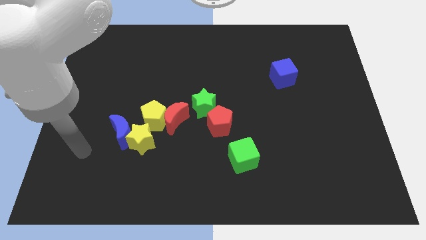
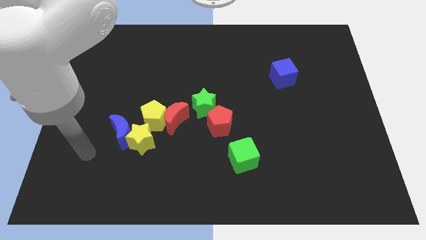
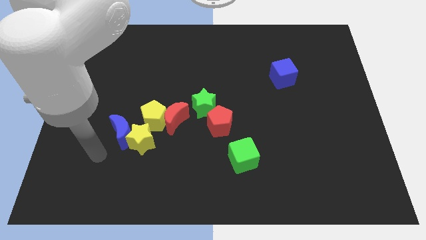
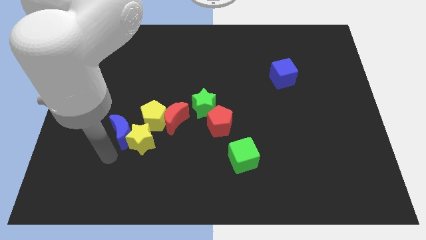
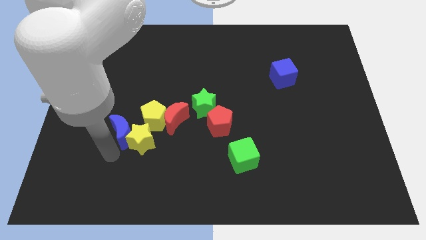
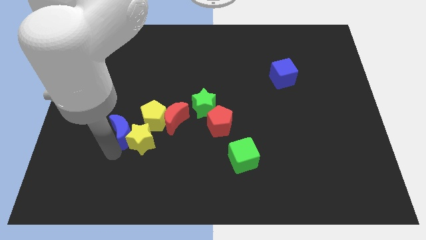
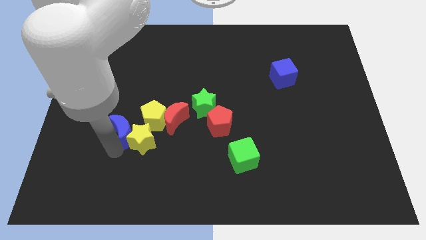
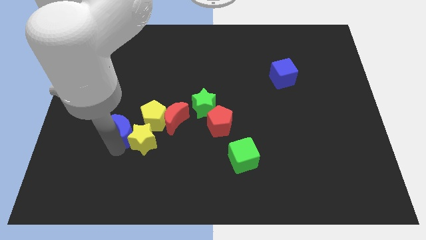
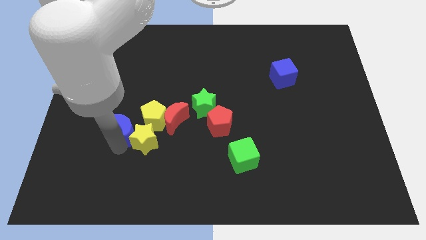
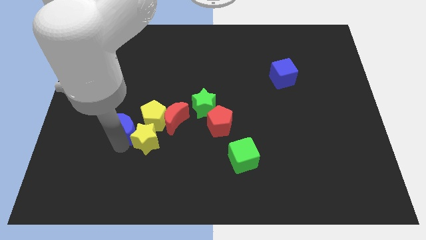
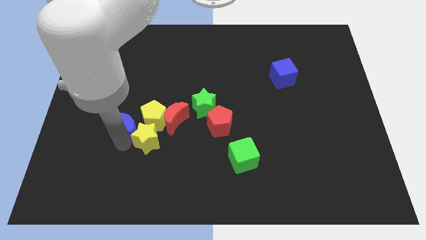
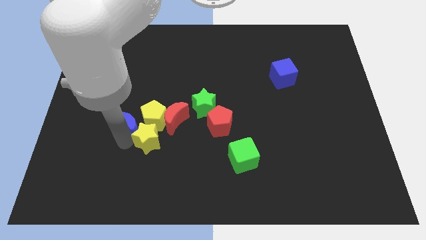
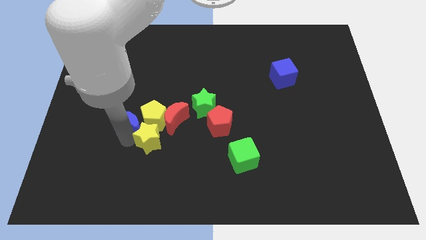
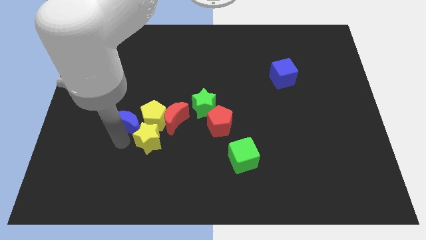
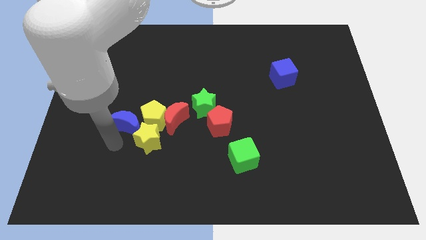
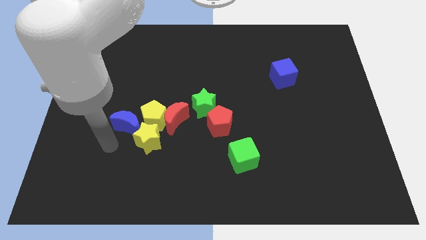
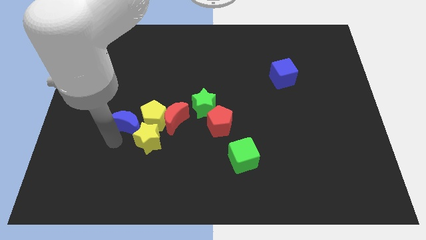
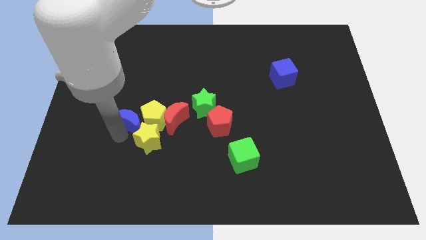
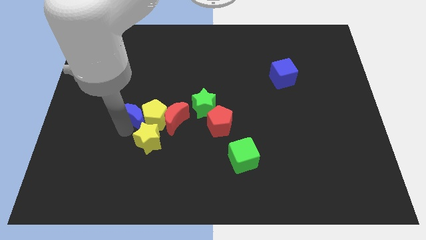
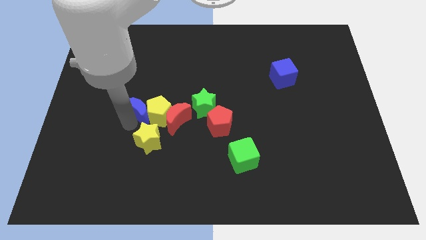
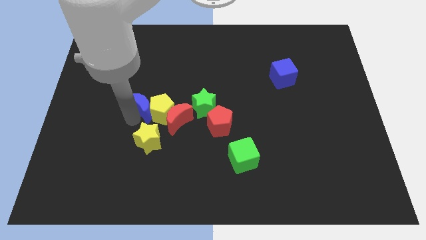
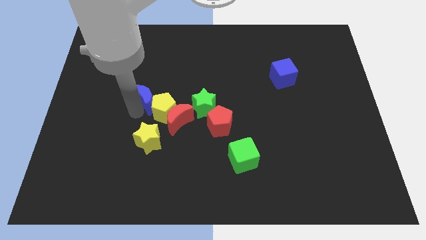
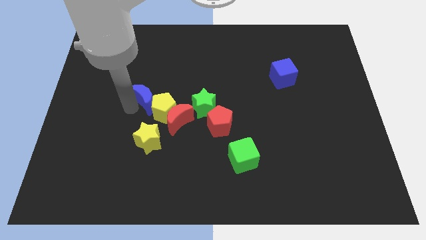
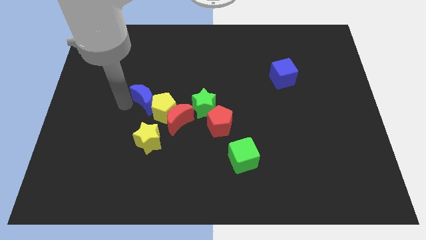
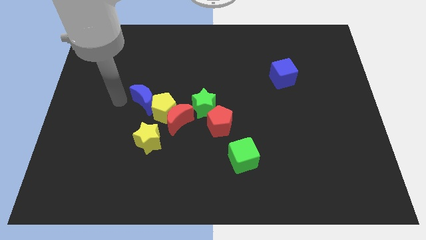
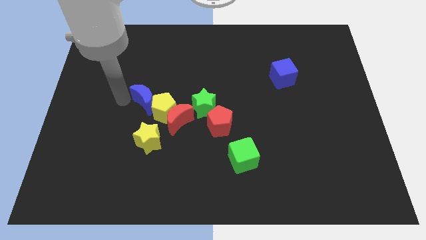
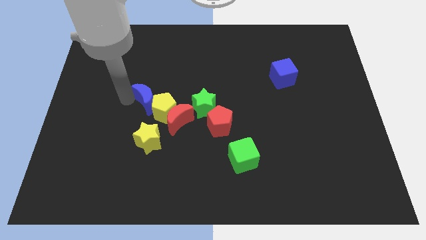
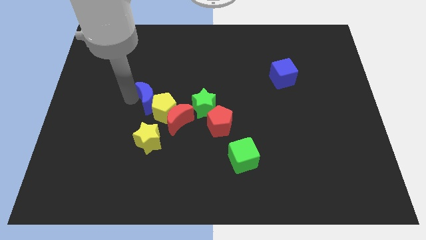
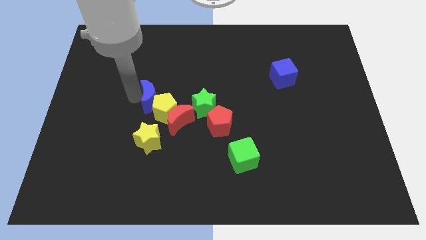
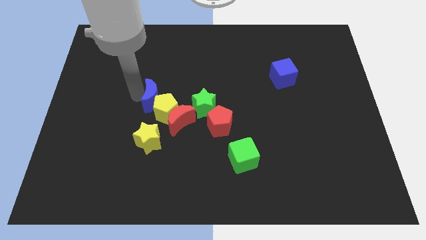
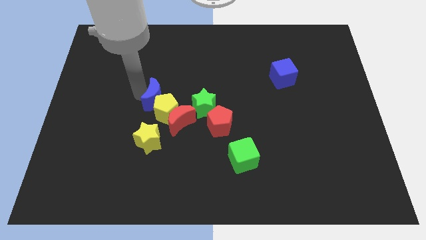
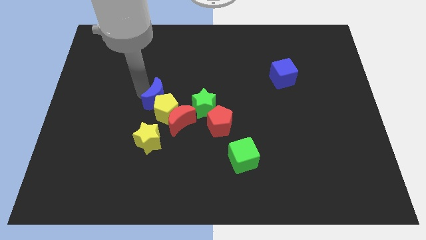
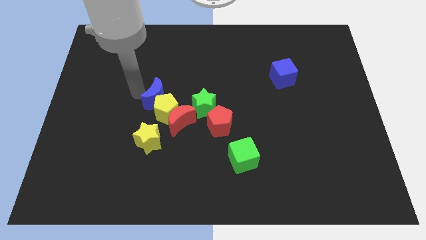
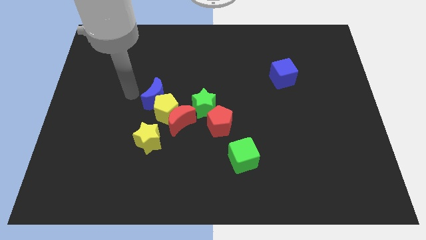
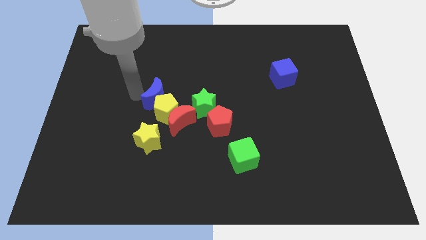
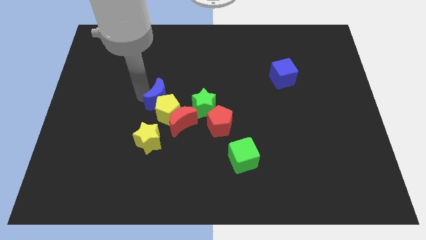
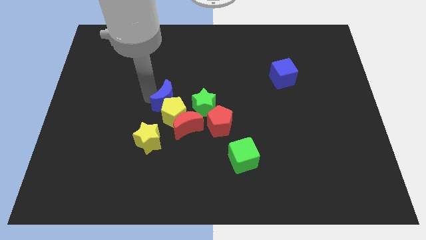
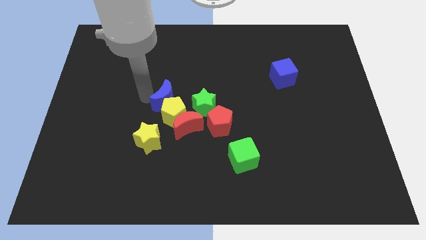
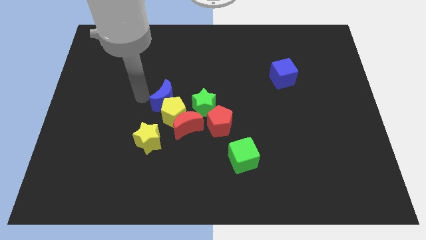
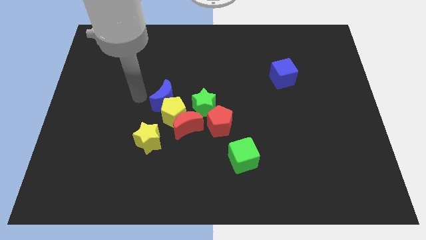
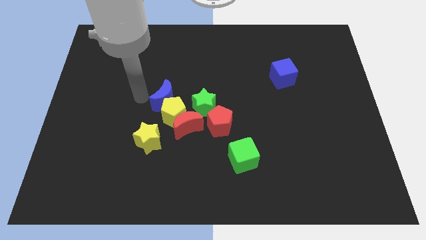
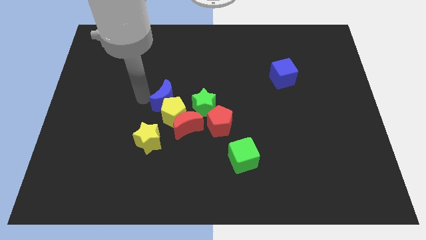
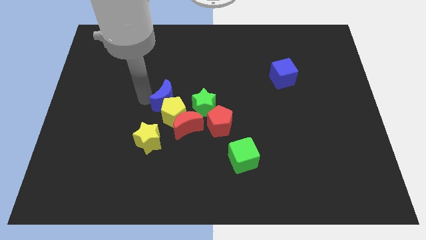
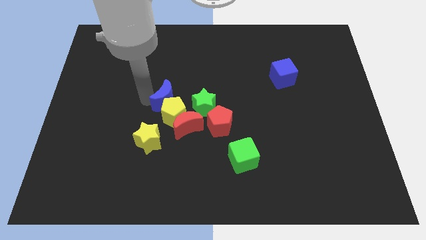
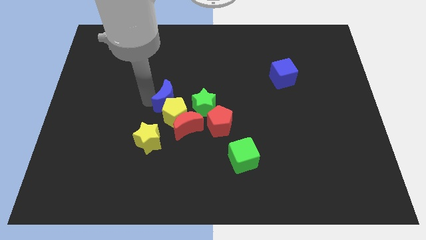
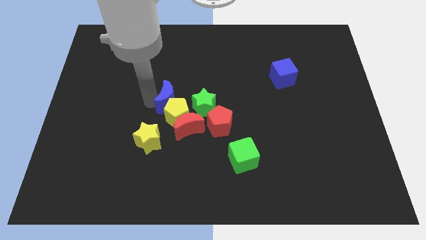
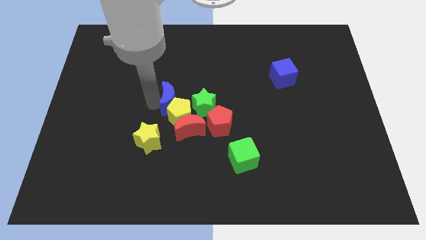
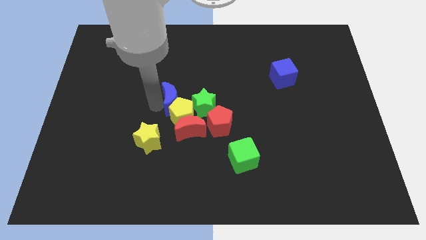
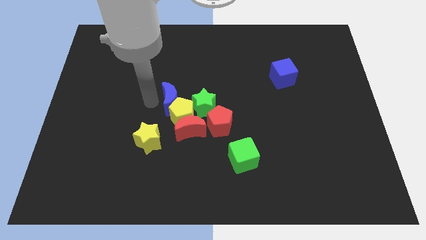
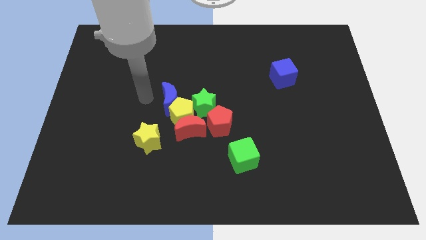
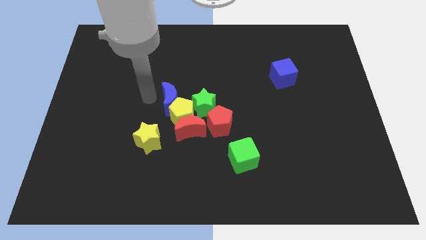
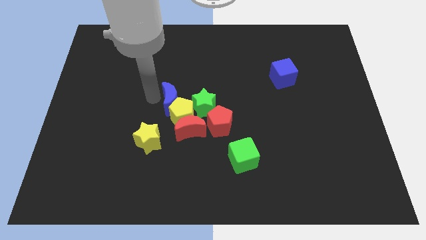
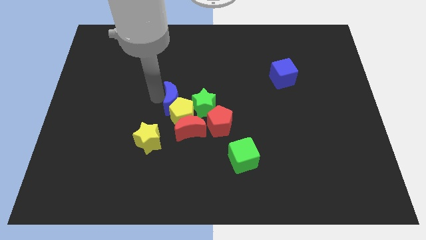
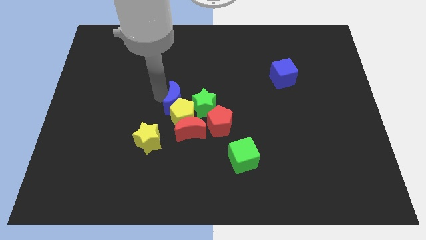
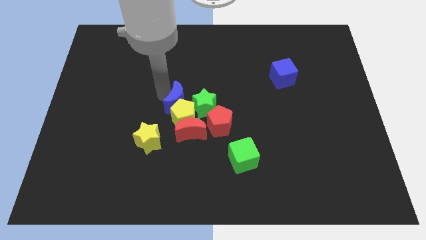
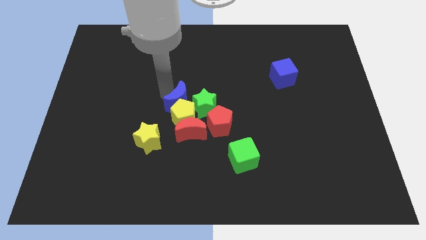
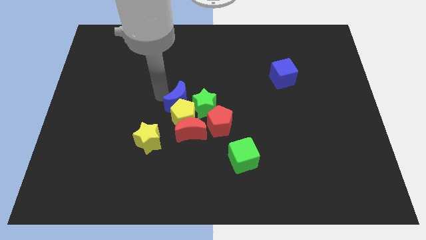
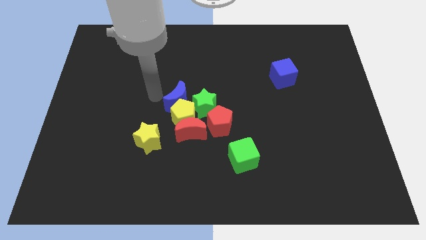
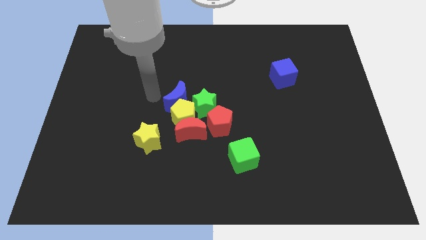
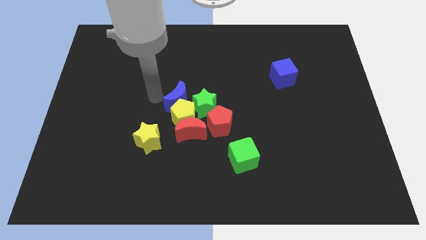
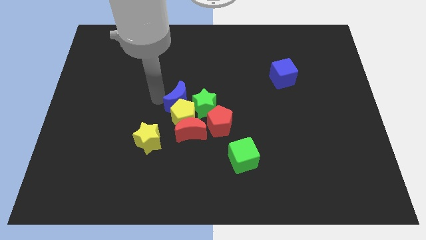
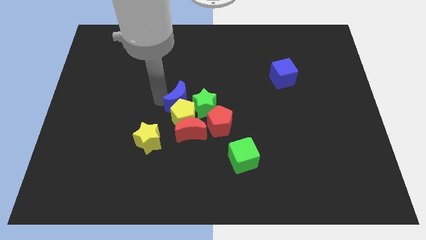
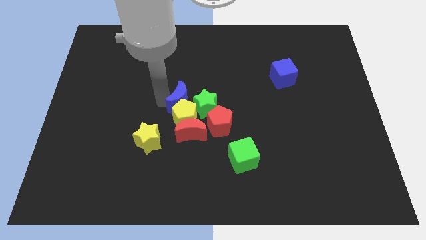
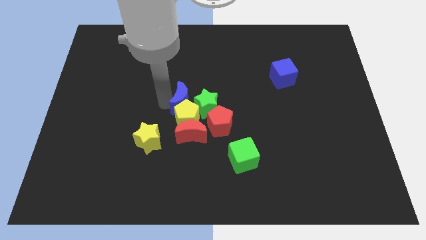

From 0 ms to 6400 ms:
push the blue moon close to the green star

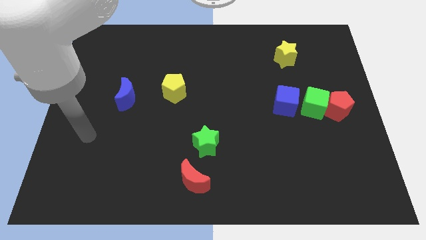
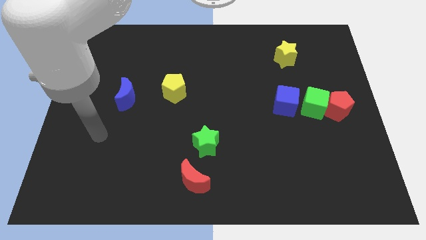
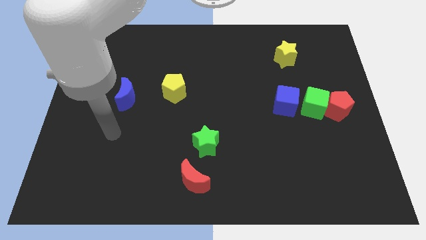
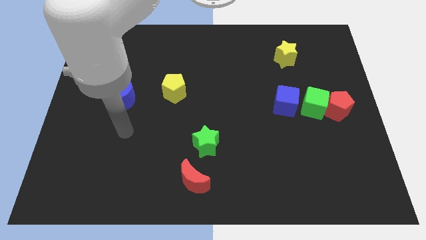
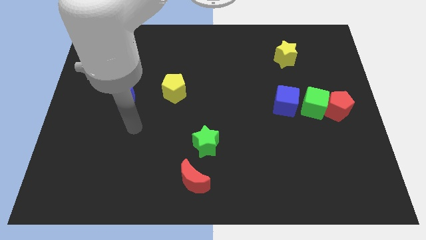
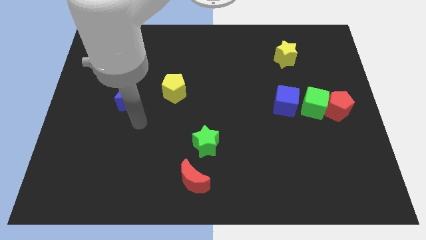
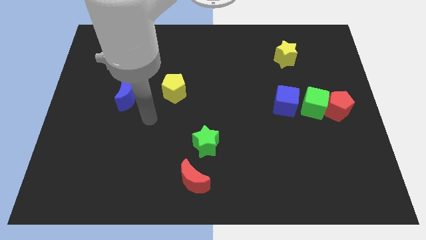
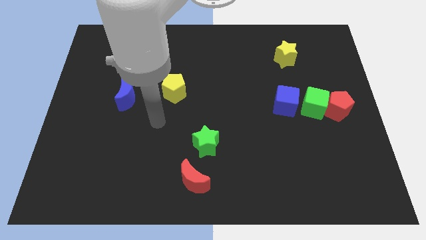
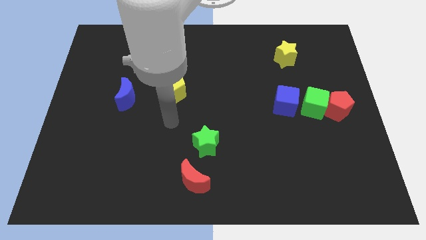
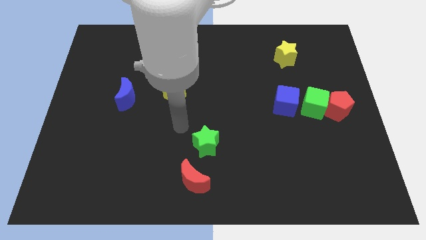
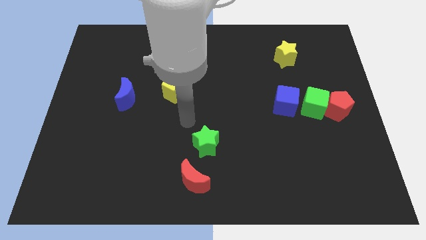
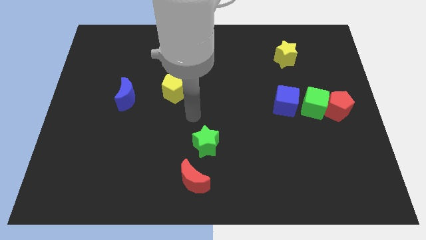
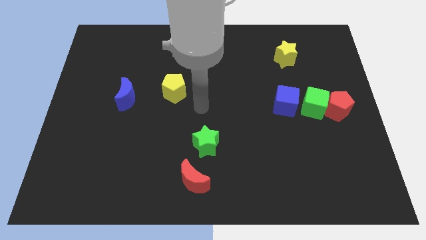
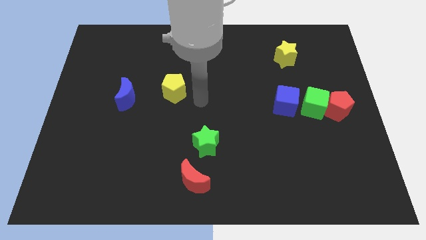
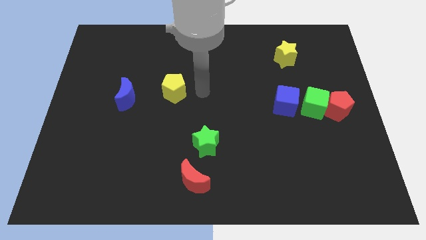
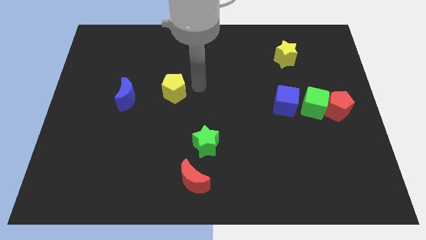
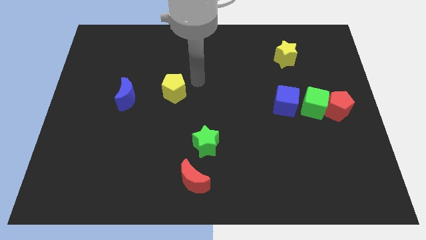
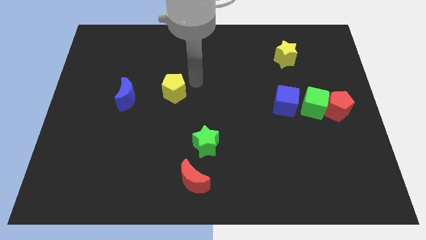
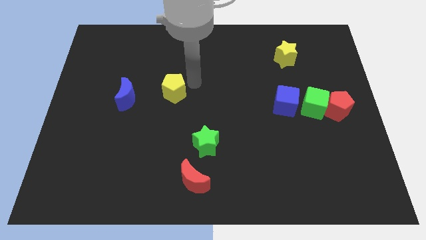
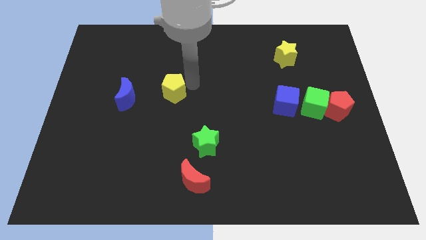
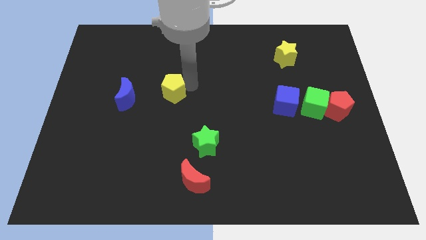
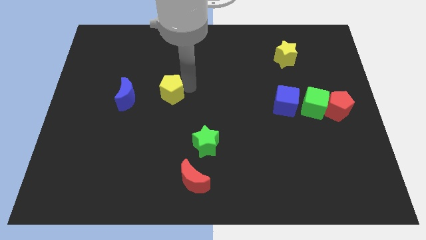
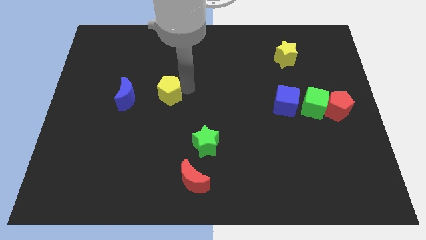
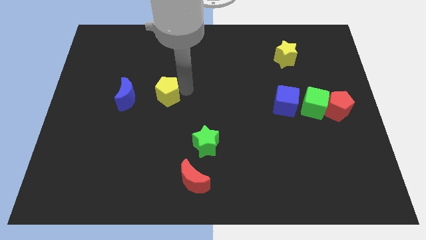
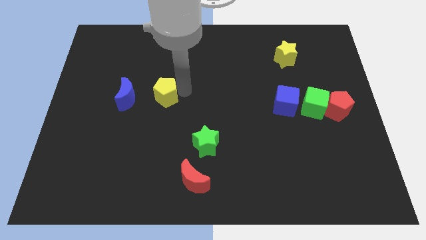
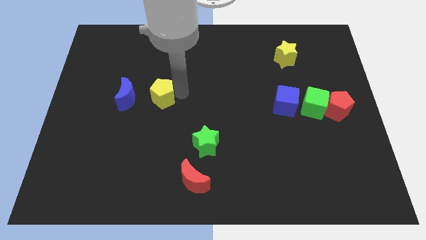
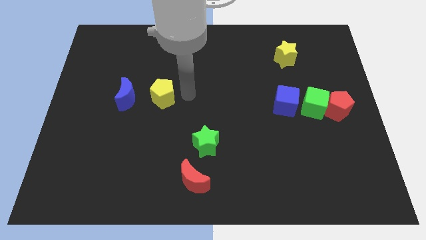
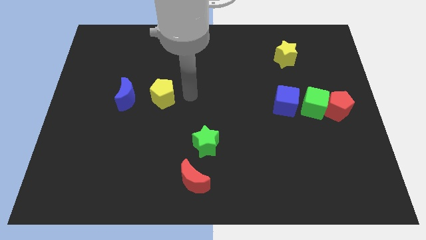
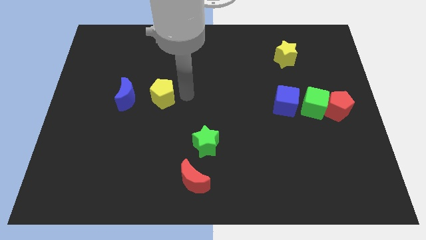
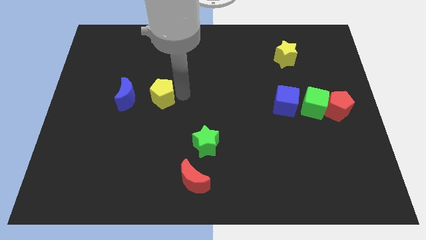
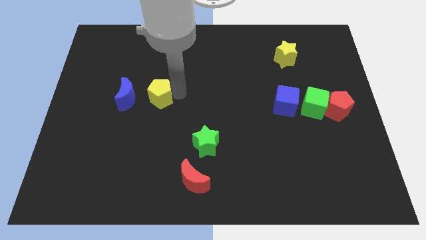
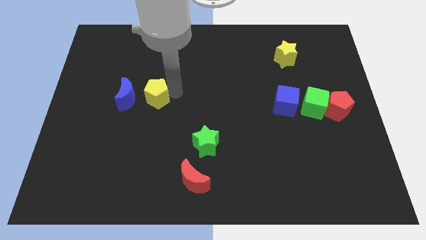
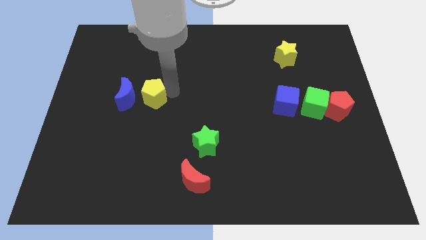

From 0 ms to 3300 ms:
slide the yellow pentagon next to the blue moon
